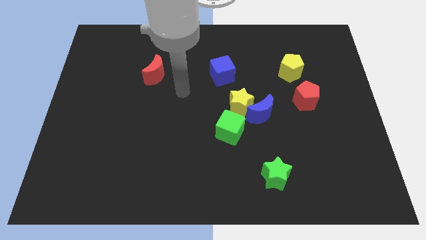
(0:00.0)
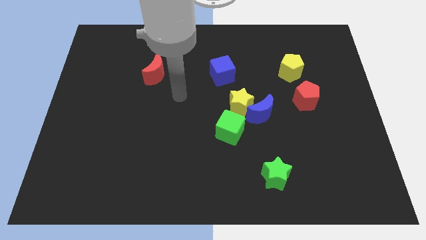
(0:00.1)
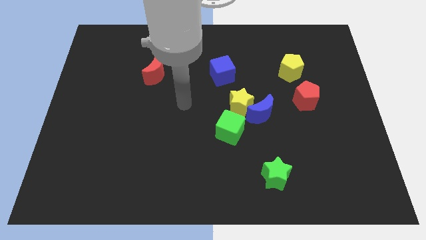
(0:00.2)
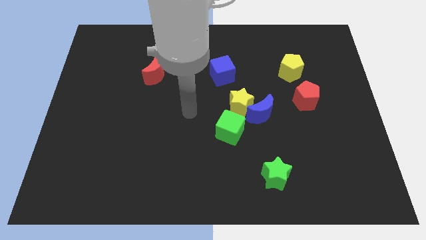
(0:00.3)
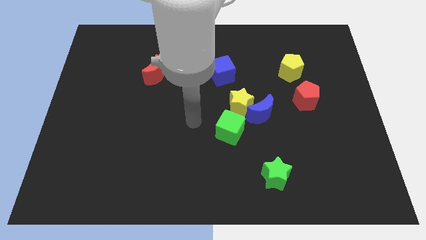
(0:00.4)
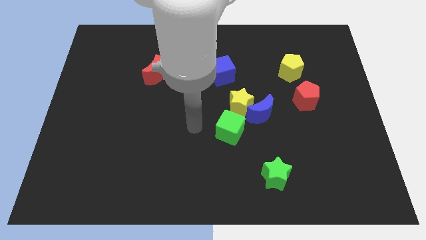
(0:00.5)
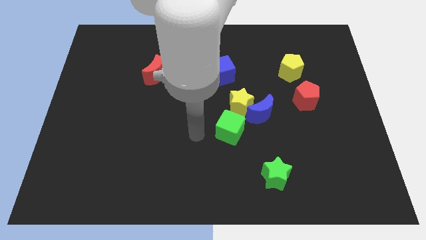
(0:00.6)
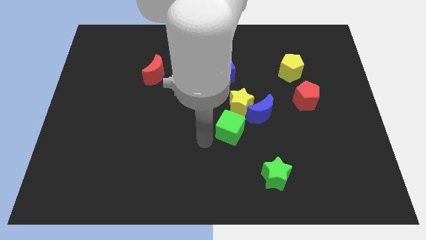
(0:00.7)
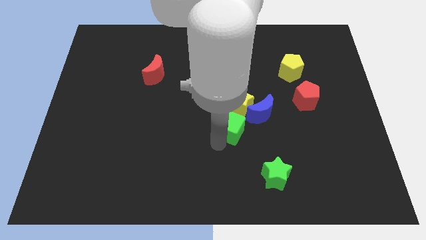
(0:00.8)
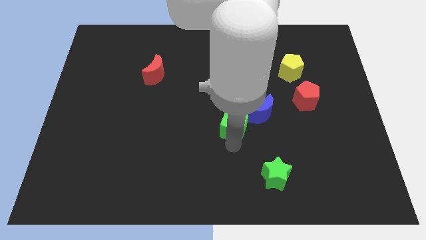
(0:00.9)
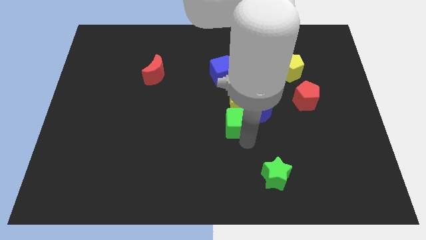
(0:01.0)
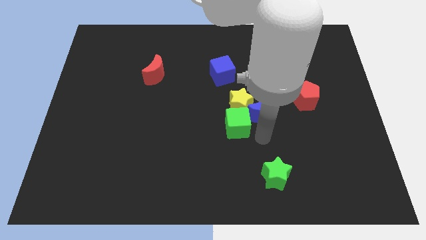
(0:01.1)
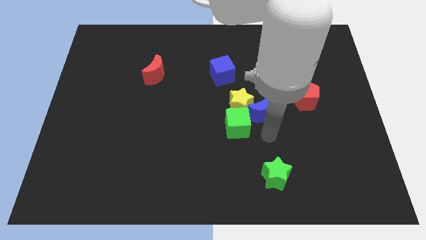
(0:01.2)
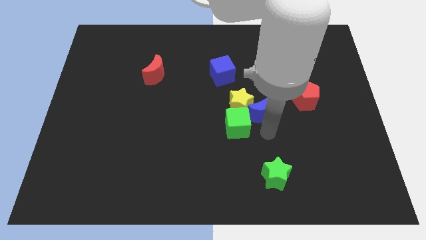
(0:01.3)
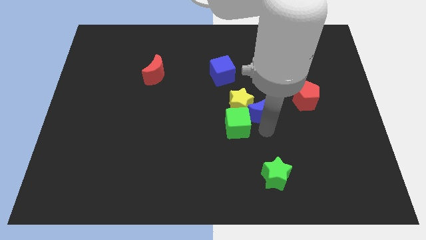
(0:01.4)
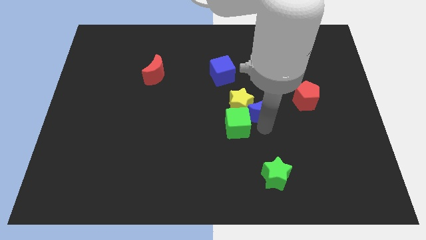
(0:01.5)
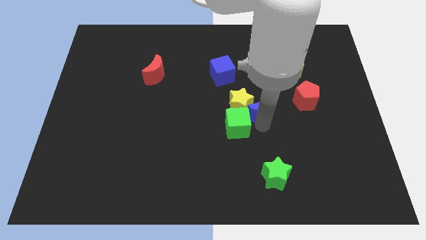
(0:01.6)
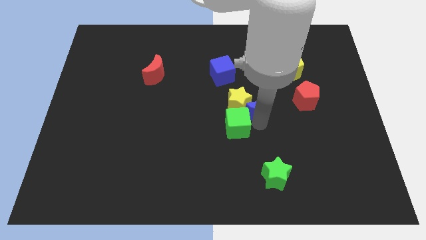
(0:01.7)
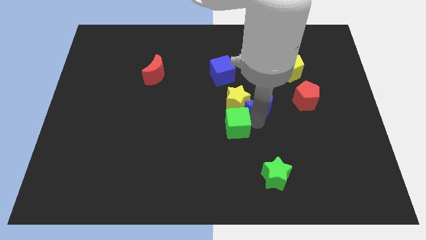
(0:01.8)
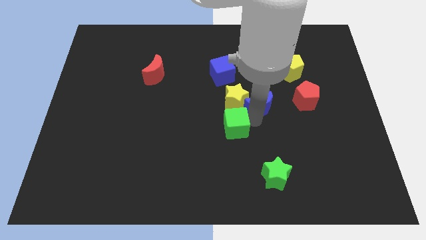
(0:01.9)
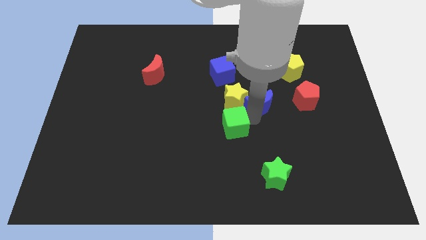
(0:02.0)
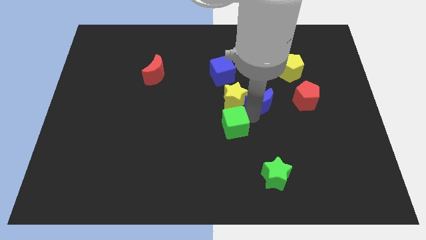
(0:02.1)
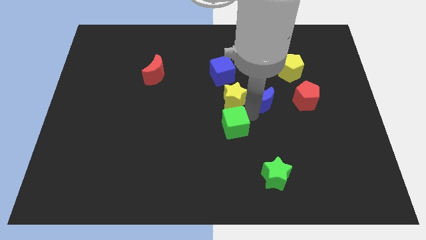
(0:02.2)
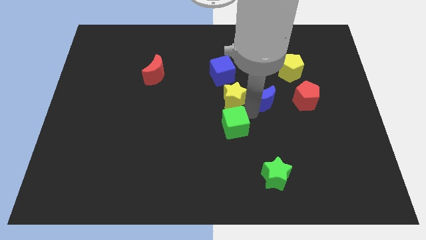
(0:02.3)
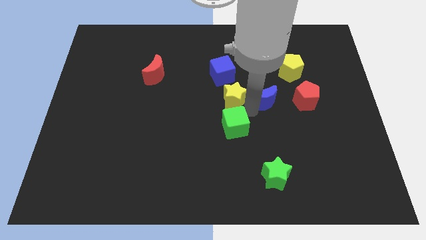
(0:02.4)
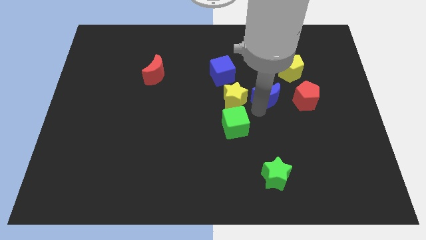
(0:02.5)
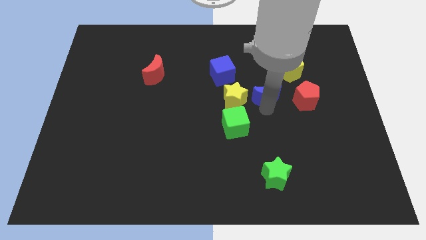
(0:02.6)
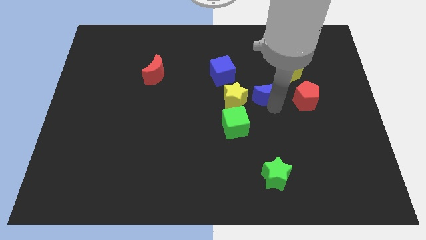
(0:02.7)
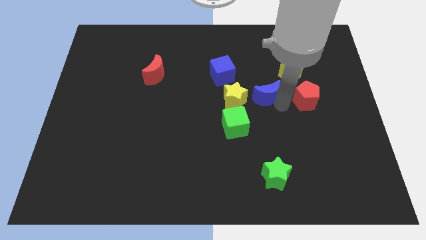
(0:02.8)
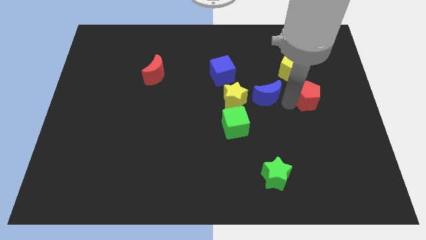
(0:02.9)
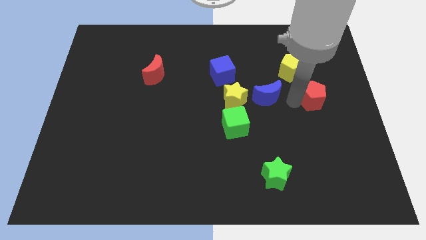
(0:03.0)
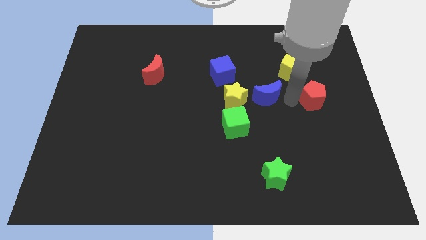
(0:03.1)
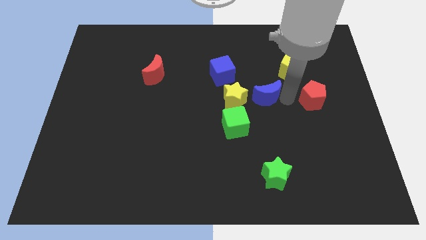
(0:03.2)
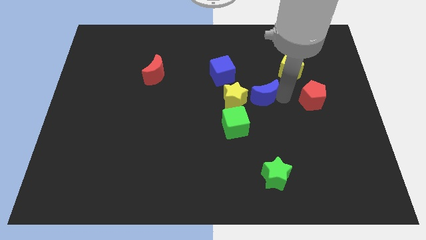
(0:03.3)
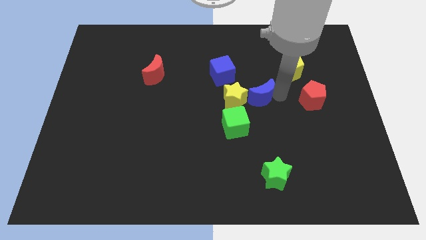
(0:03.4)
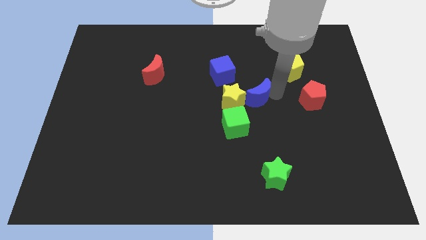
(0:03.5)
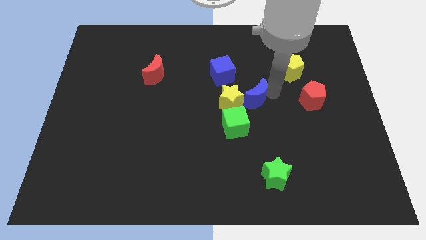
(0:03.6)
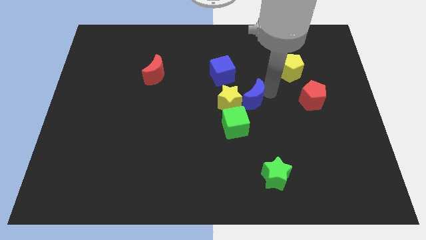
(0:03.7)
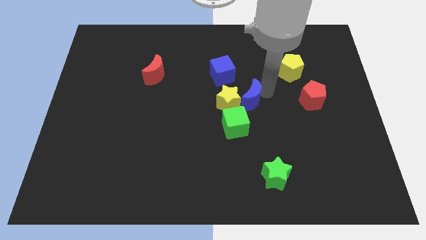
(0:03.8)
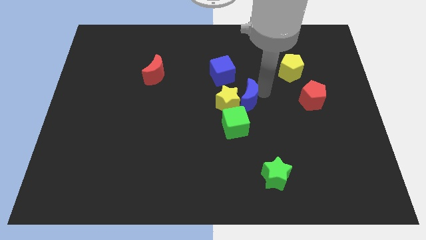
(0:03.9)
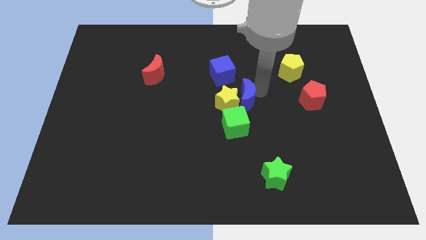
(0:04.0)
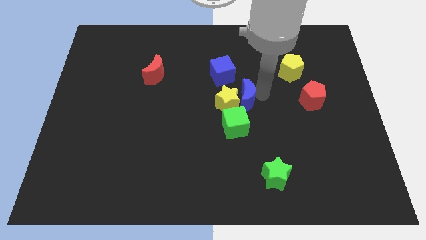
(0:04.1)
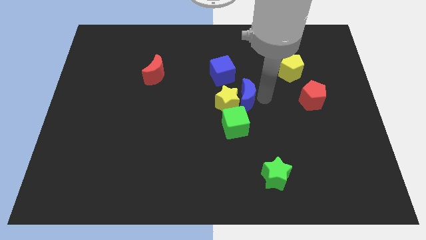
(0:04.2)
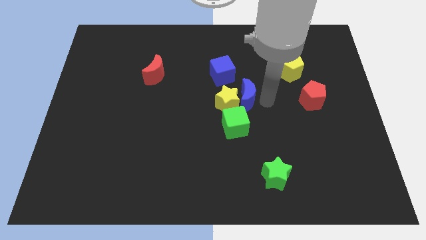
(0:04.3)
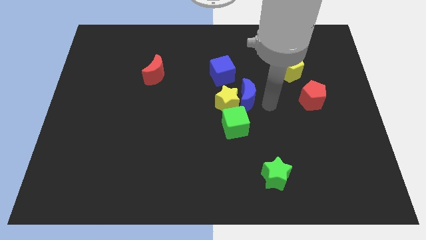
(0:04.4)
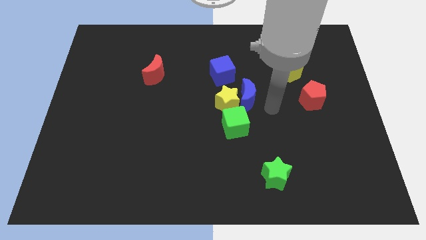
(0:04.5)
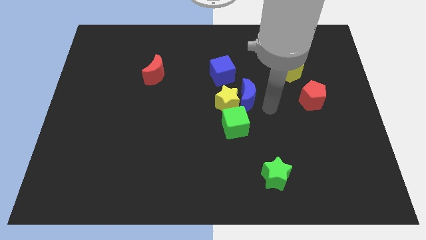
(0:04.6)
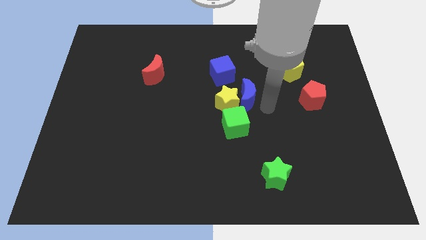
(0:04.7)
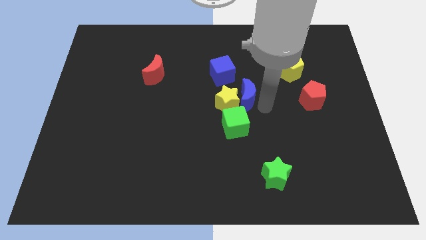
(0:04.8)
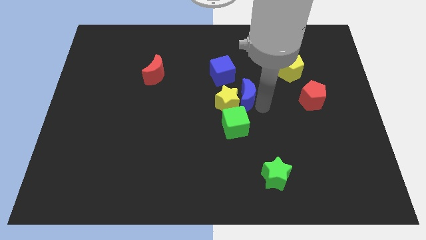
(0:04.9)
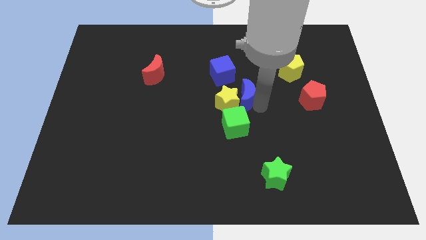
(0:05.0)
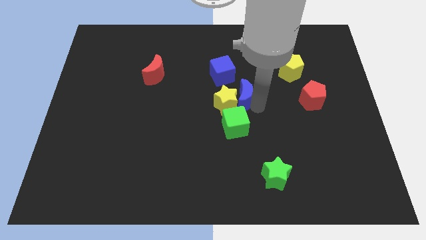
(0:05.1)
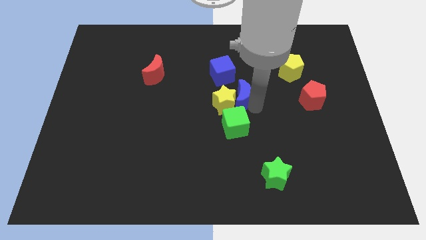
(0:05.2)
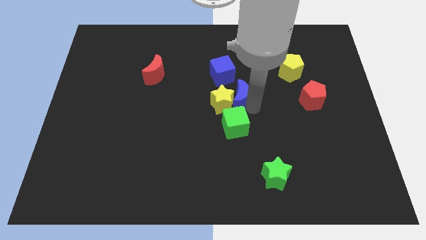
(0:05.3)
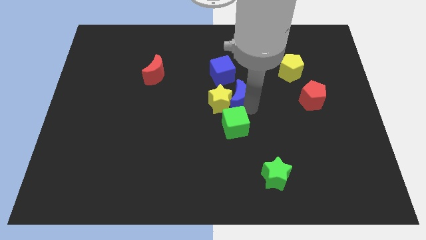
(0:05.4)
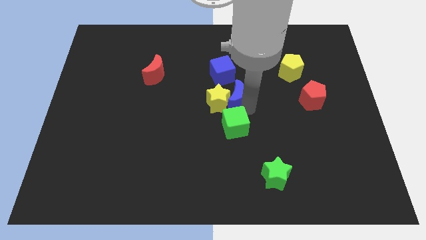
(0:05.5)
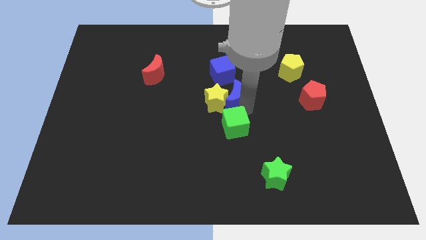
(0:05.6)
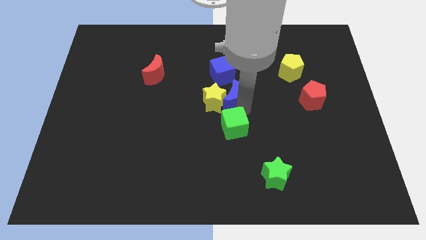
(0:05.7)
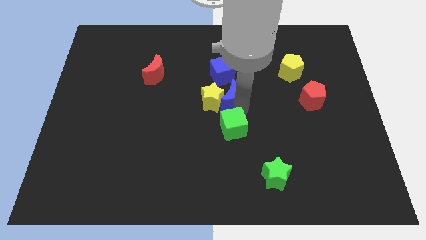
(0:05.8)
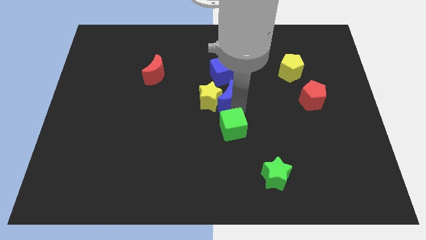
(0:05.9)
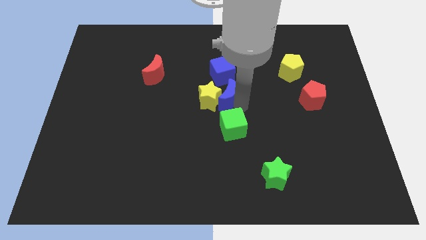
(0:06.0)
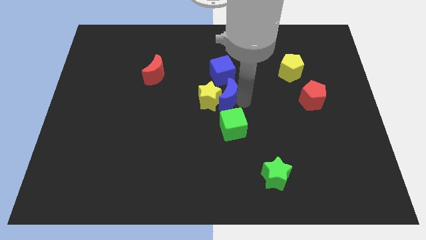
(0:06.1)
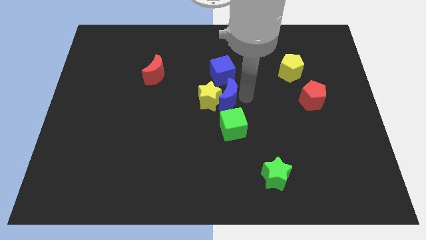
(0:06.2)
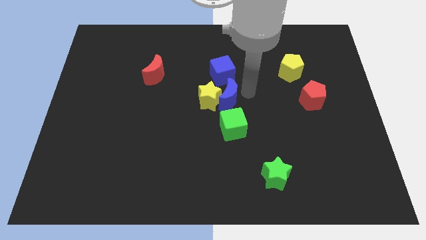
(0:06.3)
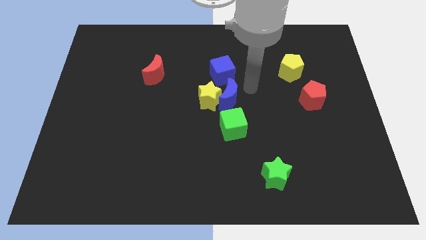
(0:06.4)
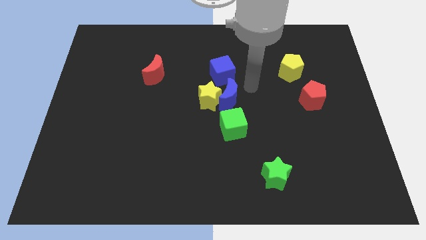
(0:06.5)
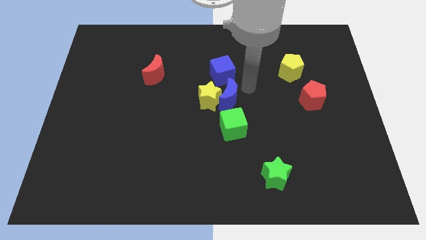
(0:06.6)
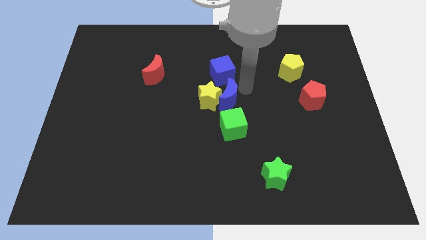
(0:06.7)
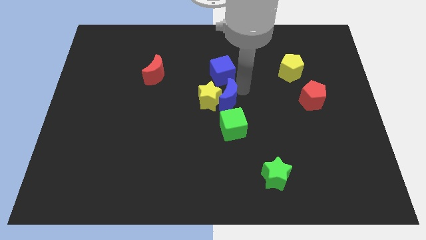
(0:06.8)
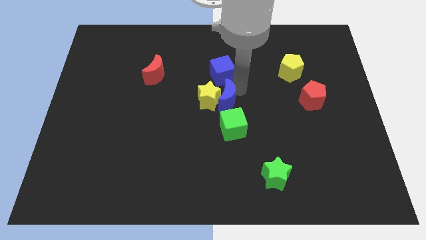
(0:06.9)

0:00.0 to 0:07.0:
move the blue moon to the top left of the green cube

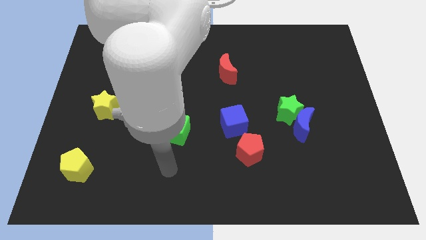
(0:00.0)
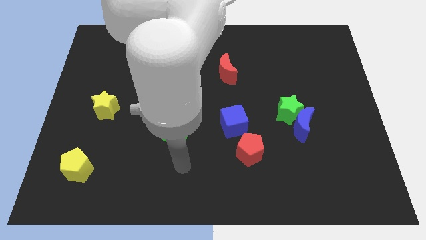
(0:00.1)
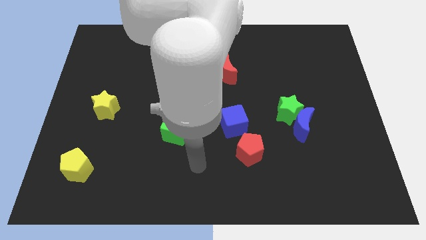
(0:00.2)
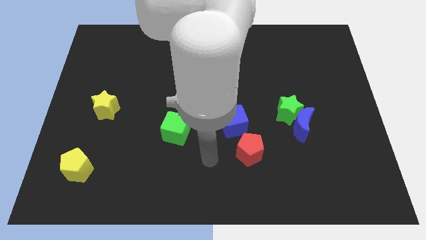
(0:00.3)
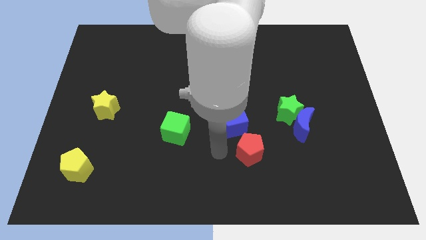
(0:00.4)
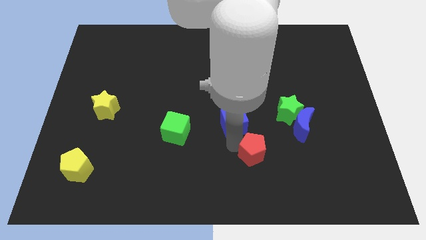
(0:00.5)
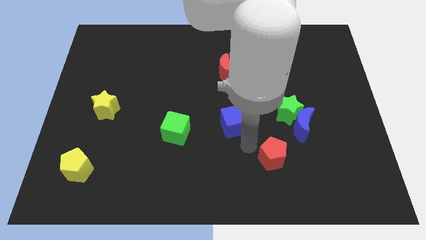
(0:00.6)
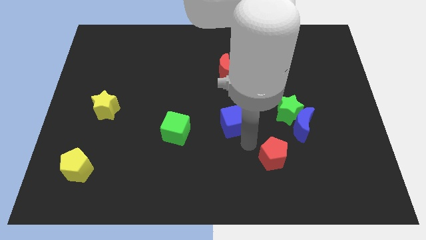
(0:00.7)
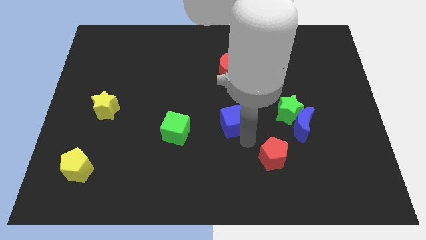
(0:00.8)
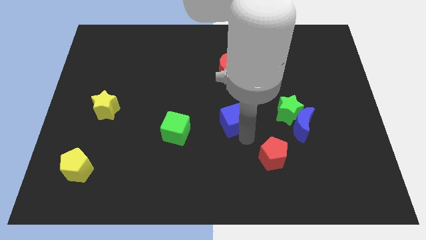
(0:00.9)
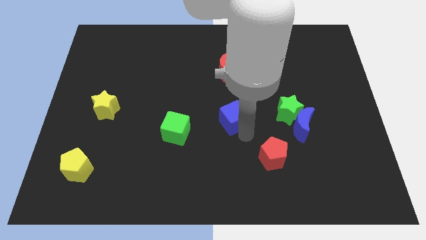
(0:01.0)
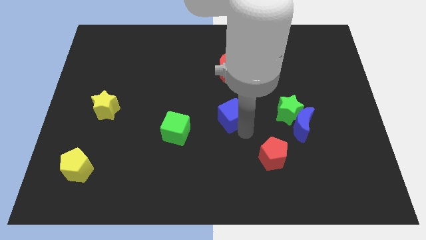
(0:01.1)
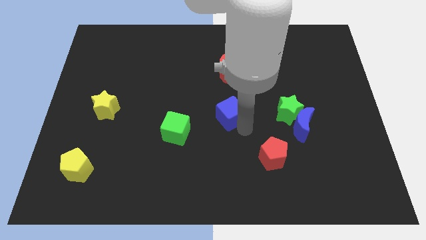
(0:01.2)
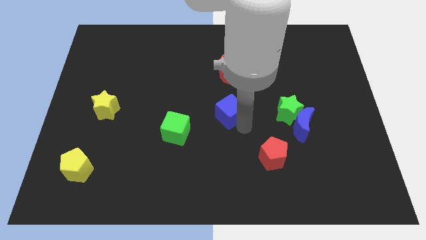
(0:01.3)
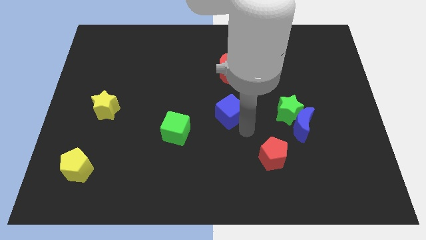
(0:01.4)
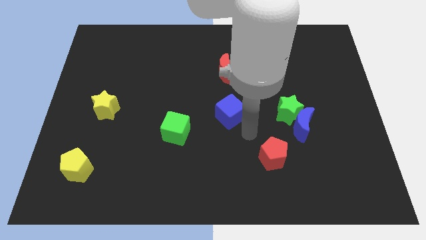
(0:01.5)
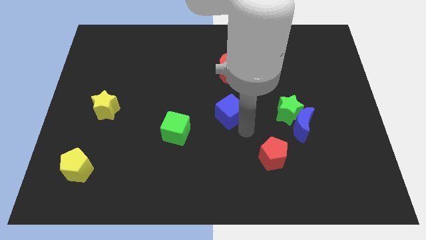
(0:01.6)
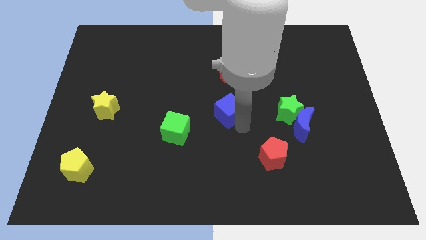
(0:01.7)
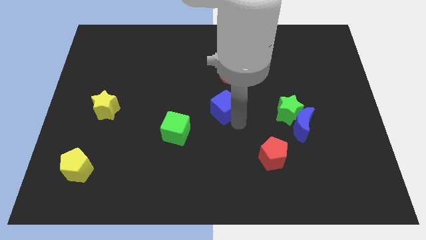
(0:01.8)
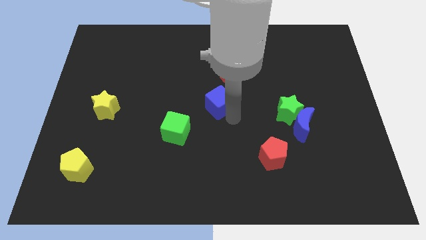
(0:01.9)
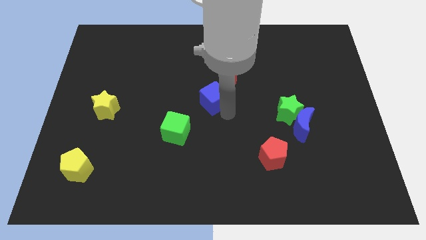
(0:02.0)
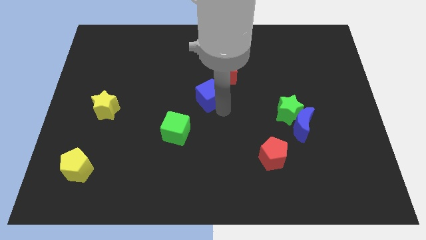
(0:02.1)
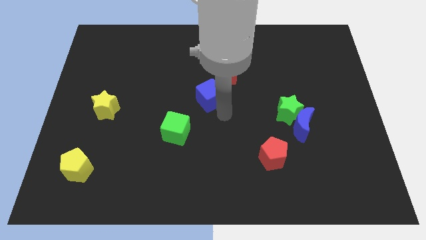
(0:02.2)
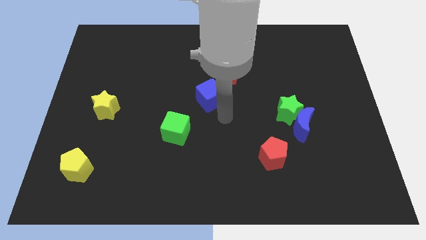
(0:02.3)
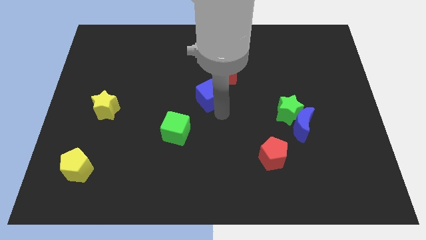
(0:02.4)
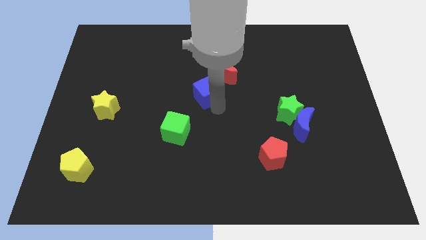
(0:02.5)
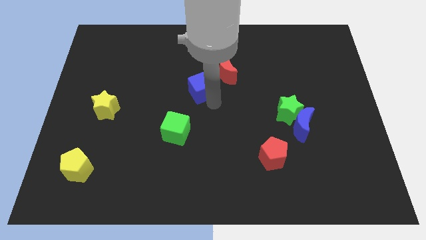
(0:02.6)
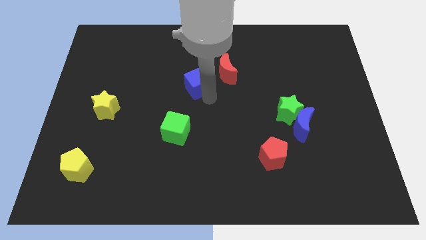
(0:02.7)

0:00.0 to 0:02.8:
push the blue cube to the left side of the red moon
